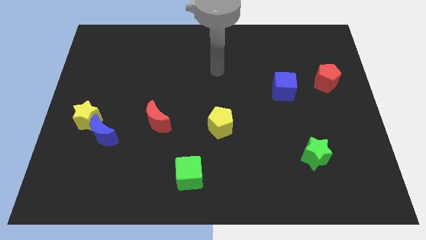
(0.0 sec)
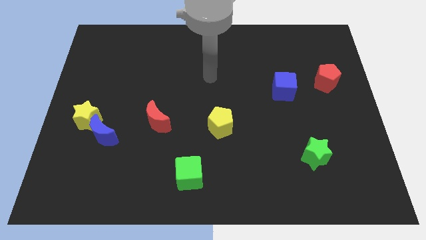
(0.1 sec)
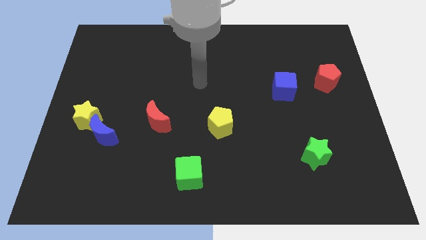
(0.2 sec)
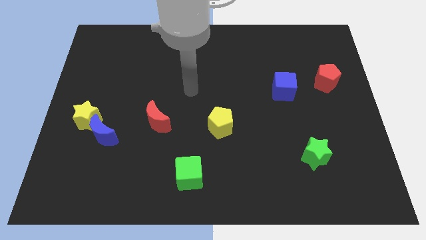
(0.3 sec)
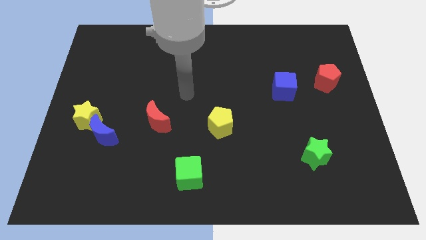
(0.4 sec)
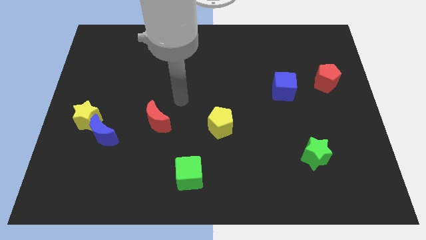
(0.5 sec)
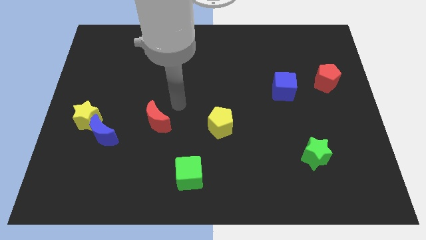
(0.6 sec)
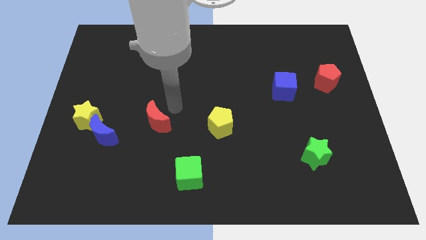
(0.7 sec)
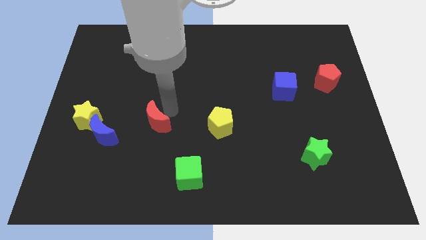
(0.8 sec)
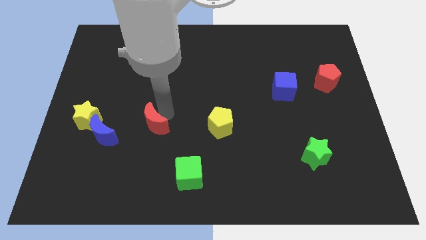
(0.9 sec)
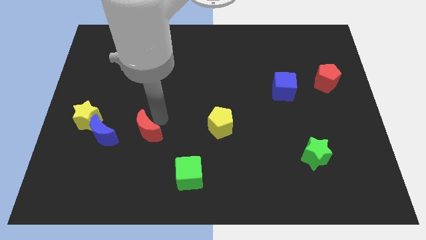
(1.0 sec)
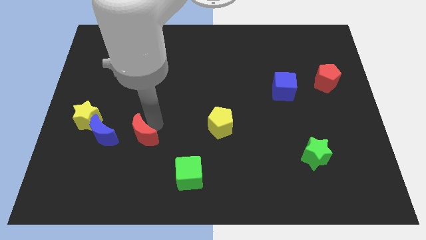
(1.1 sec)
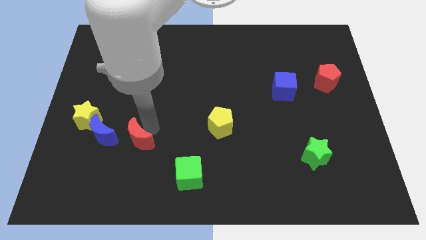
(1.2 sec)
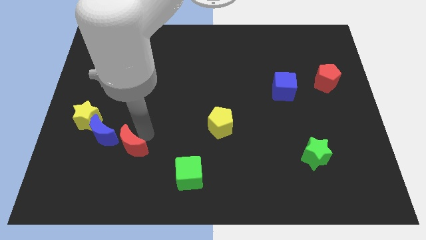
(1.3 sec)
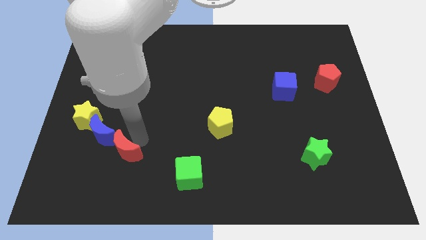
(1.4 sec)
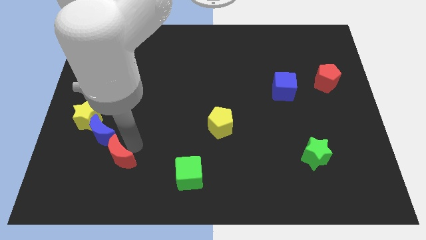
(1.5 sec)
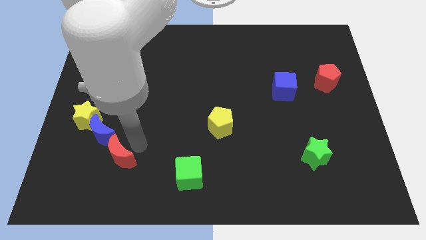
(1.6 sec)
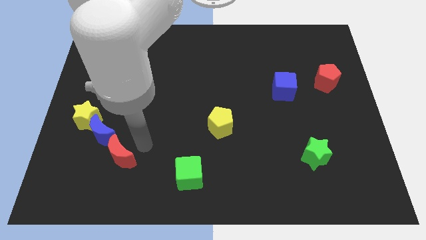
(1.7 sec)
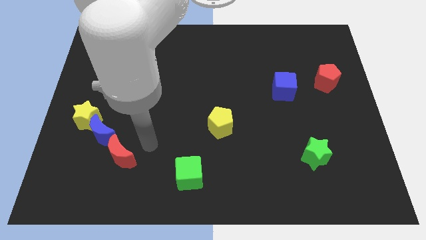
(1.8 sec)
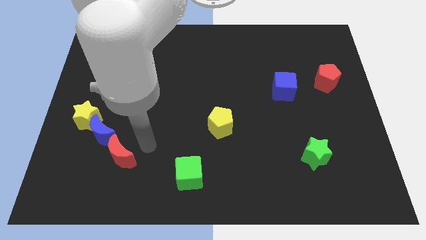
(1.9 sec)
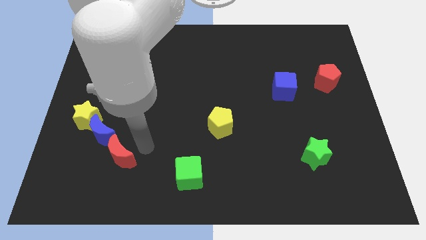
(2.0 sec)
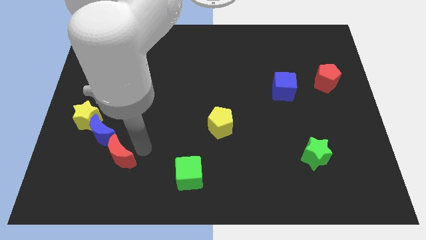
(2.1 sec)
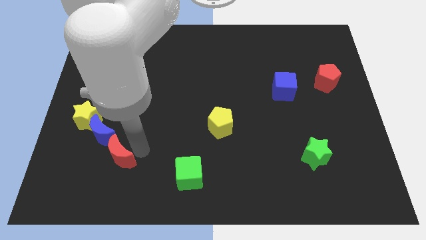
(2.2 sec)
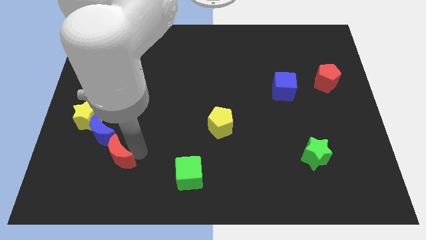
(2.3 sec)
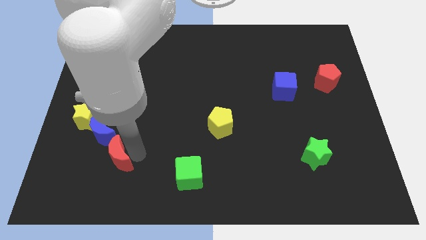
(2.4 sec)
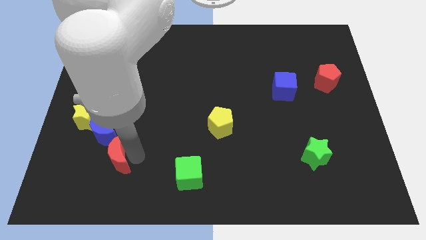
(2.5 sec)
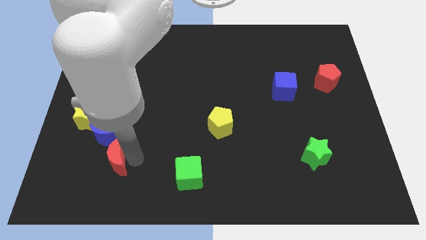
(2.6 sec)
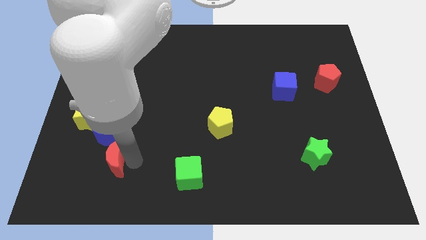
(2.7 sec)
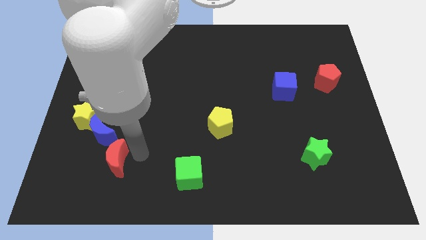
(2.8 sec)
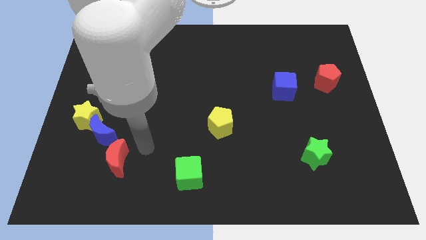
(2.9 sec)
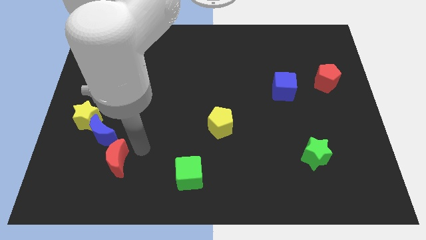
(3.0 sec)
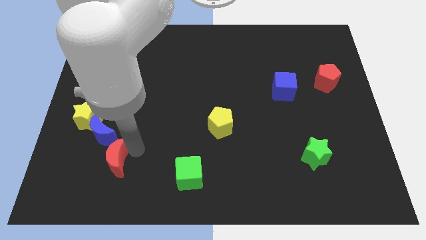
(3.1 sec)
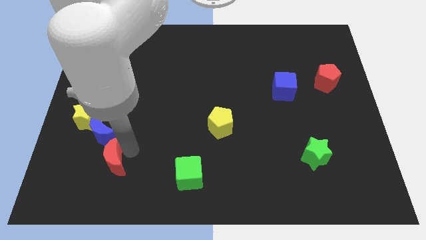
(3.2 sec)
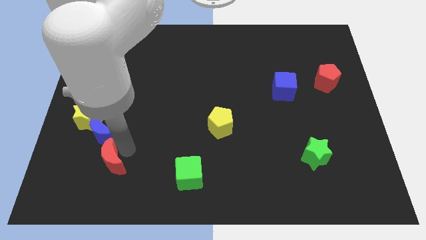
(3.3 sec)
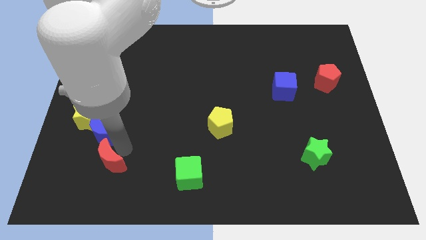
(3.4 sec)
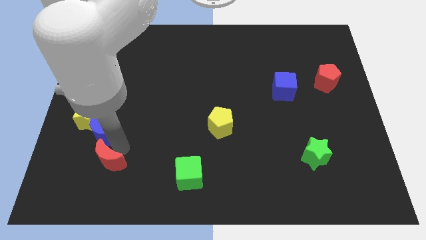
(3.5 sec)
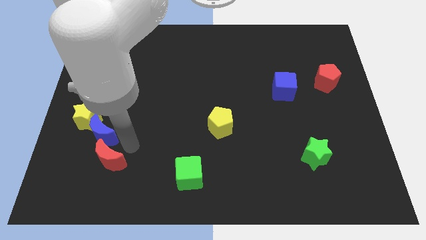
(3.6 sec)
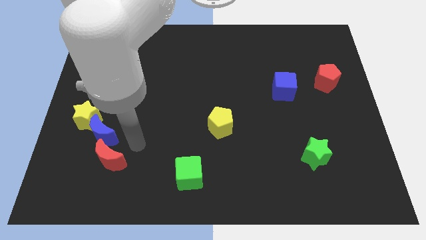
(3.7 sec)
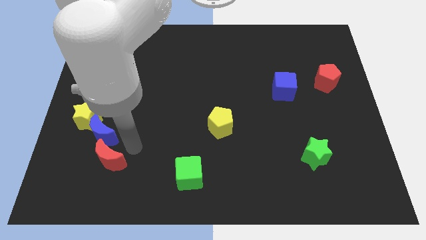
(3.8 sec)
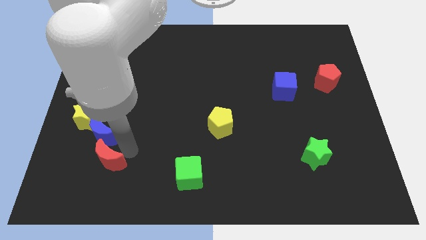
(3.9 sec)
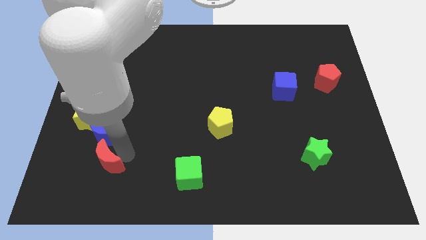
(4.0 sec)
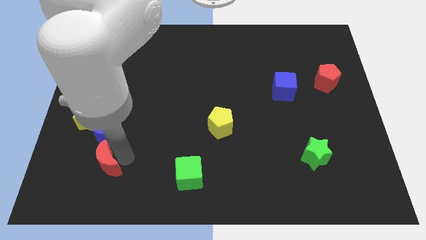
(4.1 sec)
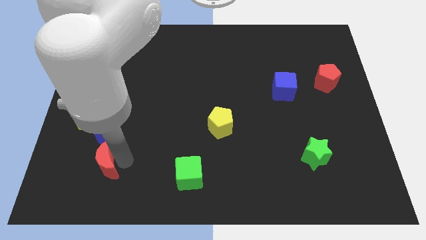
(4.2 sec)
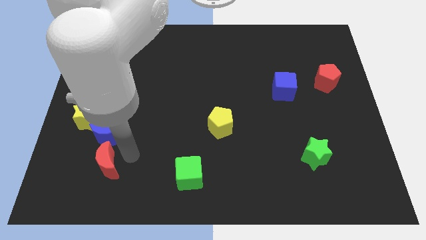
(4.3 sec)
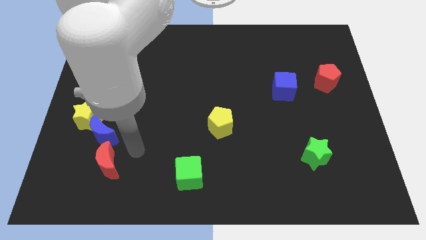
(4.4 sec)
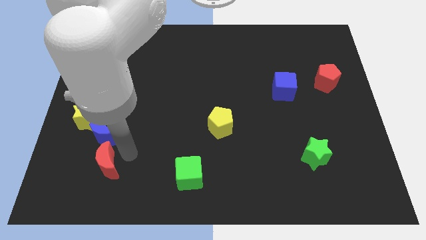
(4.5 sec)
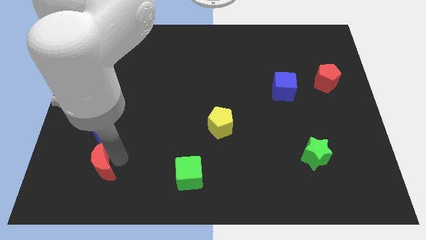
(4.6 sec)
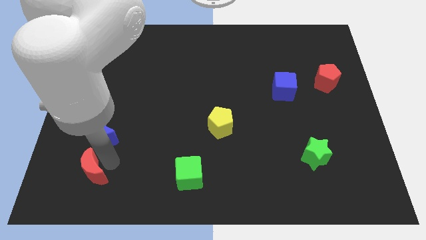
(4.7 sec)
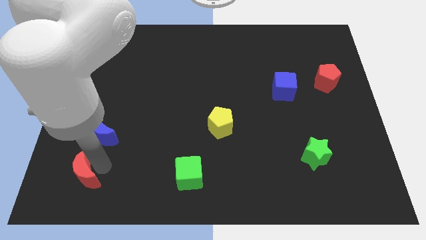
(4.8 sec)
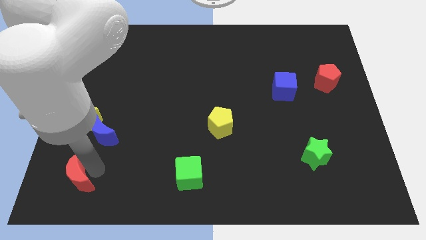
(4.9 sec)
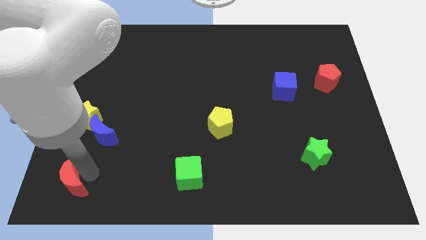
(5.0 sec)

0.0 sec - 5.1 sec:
push the red moon to the bottom left

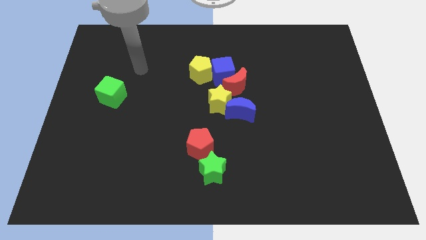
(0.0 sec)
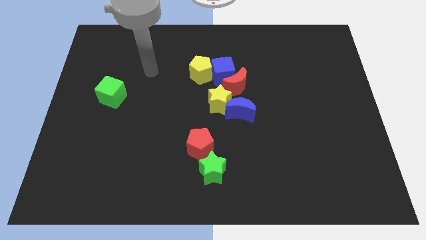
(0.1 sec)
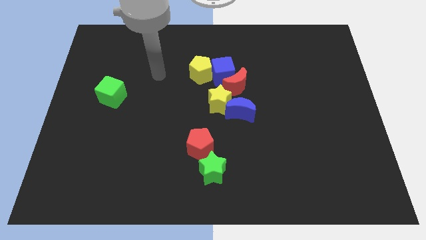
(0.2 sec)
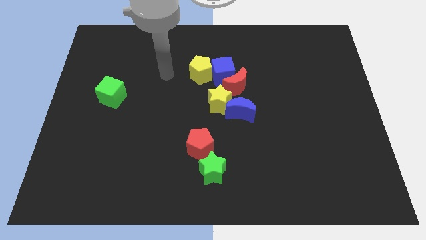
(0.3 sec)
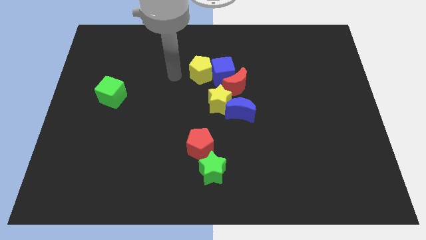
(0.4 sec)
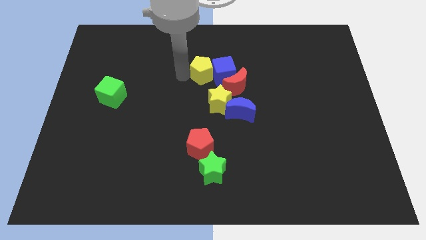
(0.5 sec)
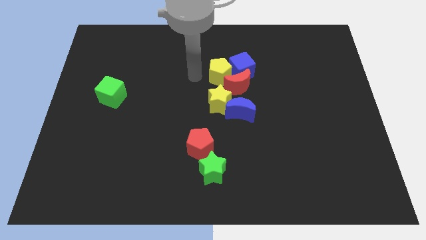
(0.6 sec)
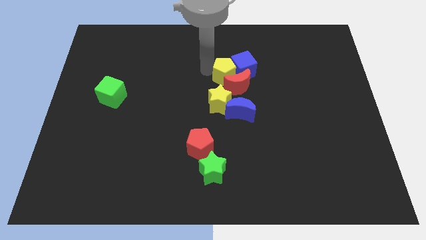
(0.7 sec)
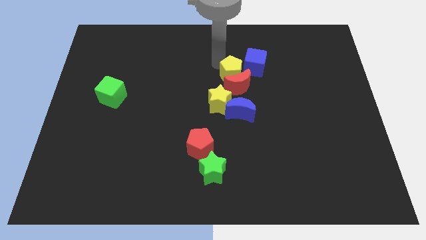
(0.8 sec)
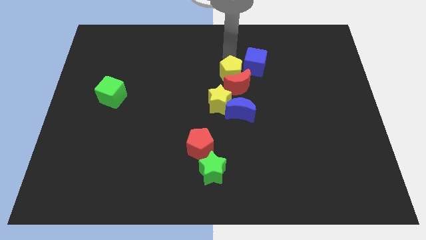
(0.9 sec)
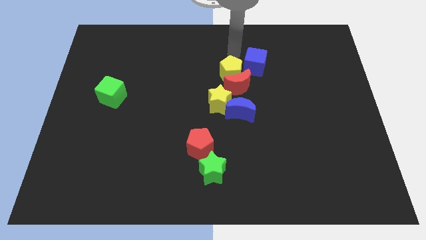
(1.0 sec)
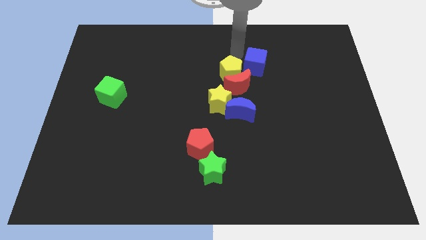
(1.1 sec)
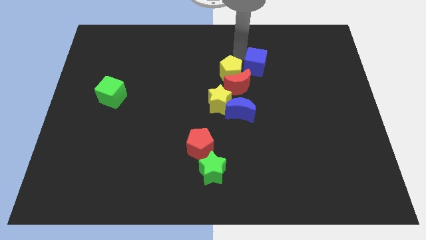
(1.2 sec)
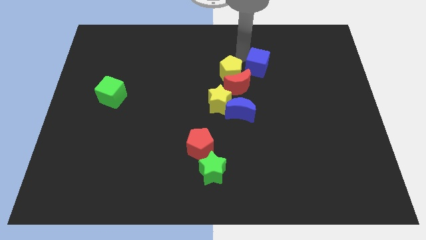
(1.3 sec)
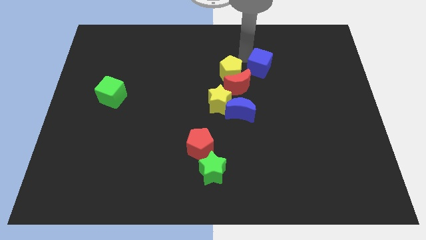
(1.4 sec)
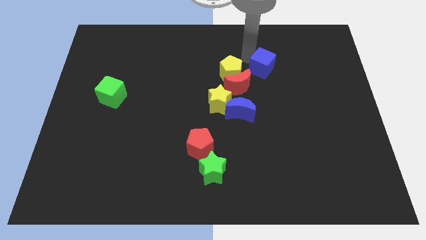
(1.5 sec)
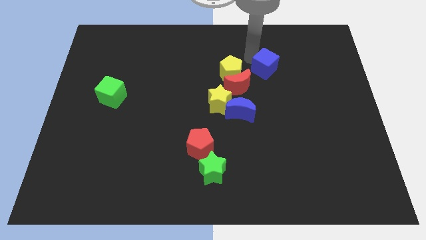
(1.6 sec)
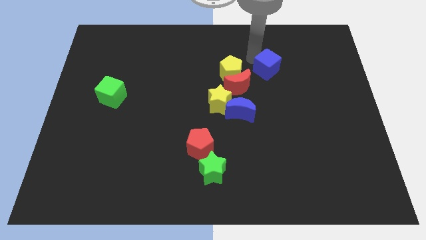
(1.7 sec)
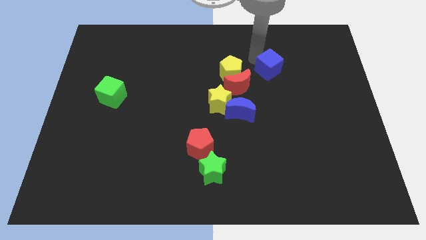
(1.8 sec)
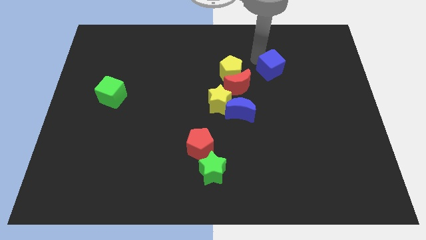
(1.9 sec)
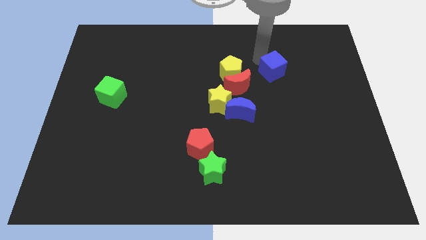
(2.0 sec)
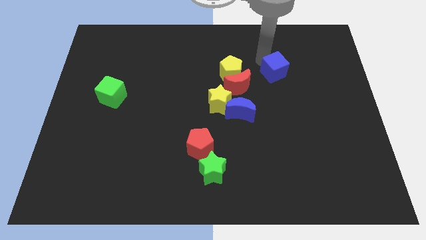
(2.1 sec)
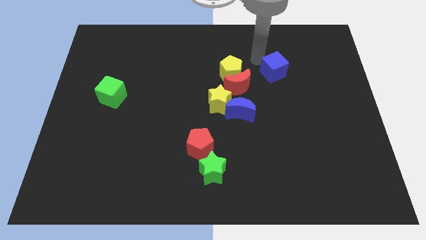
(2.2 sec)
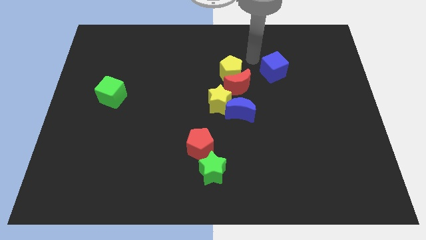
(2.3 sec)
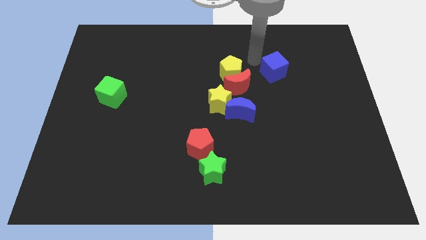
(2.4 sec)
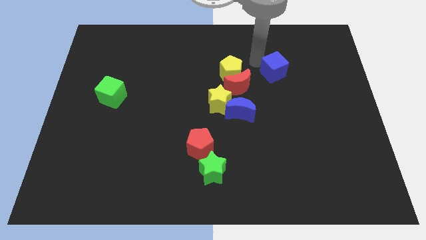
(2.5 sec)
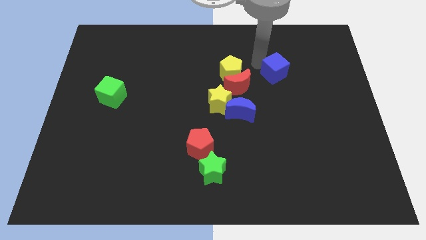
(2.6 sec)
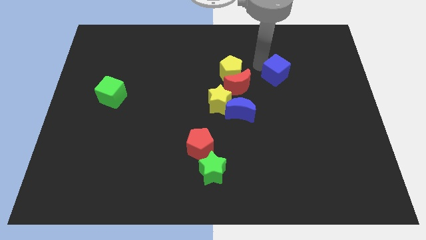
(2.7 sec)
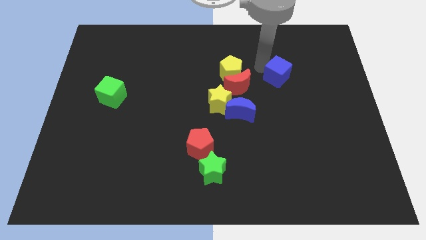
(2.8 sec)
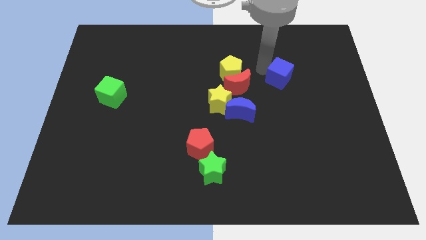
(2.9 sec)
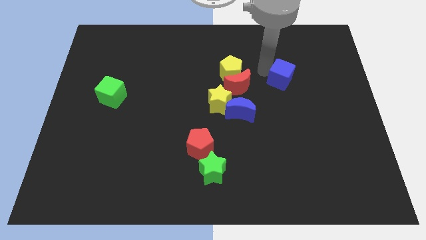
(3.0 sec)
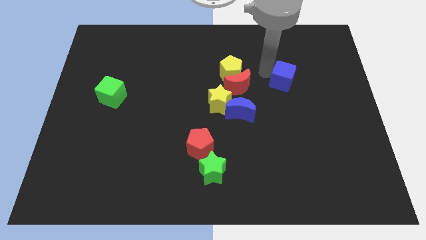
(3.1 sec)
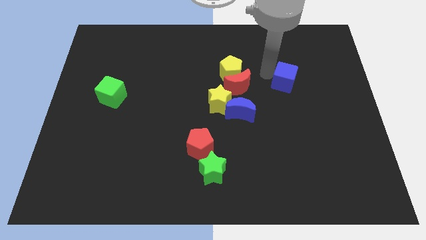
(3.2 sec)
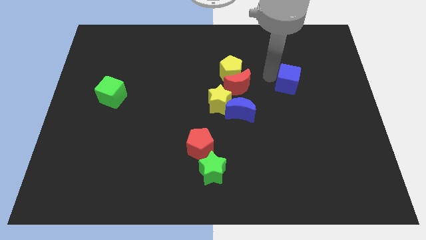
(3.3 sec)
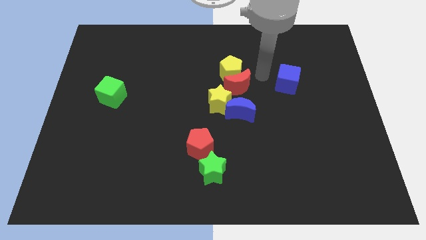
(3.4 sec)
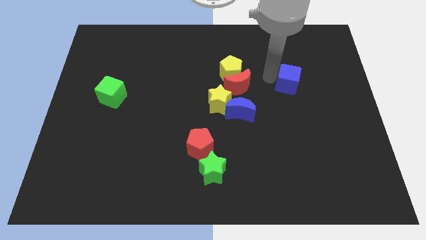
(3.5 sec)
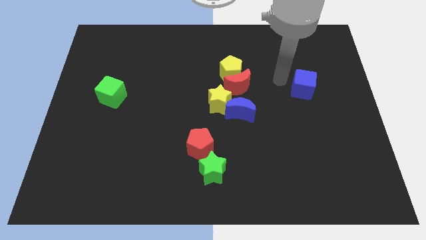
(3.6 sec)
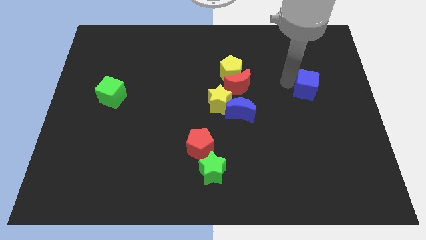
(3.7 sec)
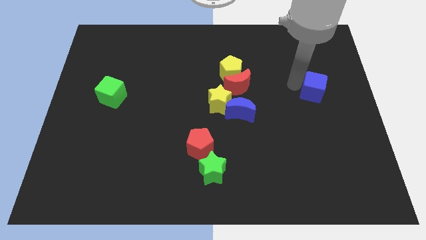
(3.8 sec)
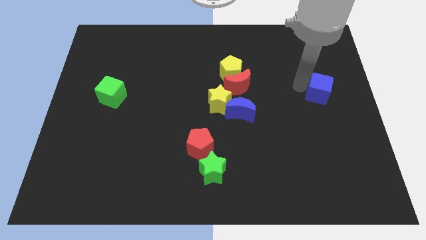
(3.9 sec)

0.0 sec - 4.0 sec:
slide the blue cube to the right side
